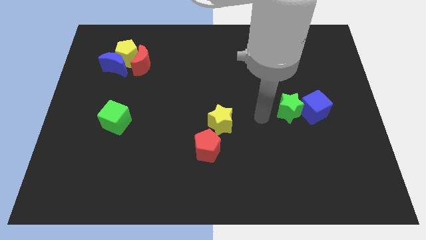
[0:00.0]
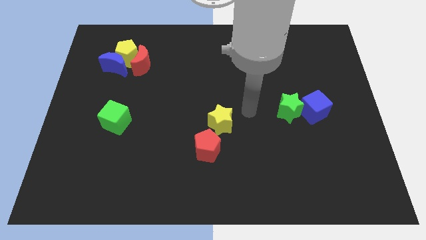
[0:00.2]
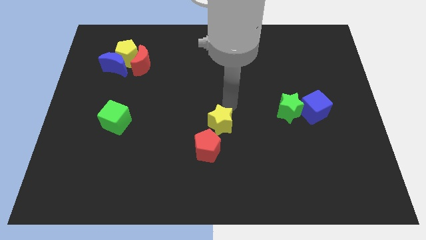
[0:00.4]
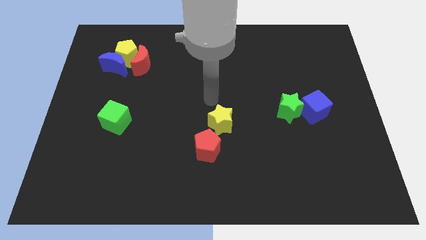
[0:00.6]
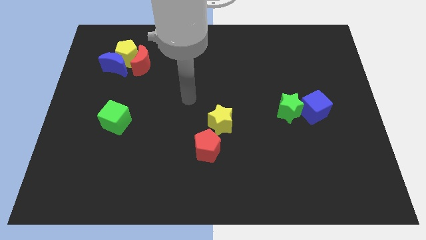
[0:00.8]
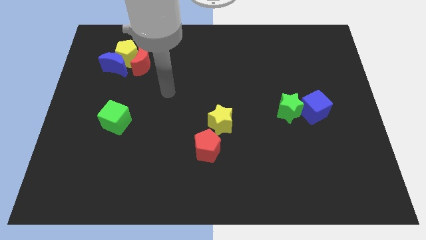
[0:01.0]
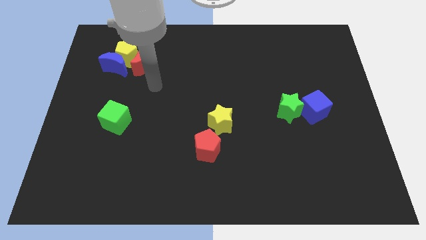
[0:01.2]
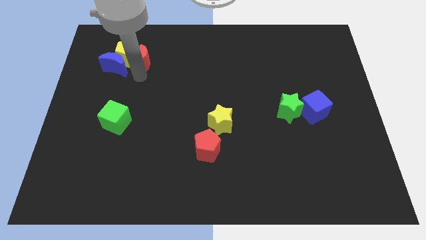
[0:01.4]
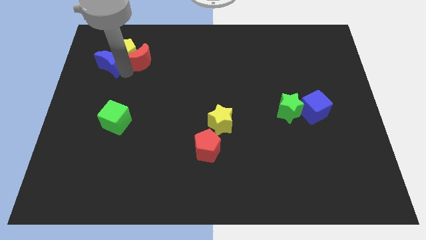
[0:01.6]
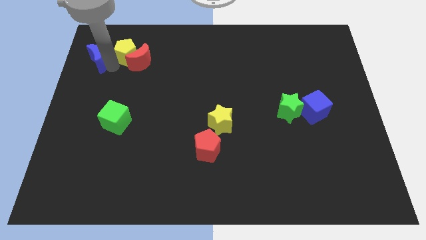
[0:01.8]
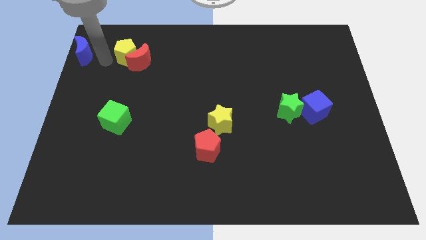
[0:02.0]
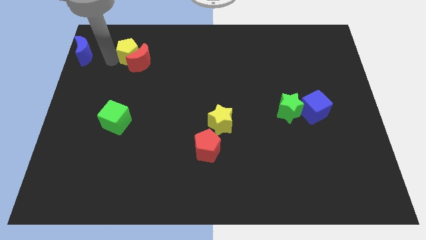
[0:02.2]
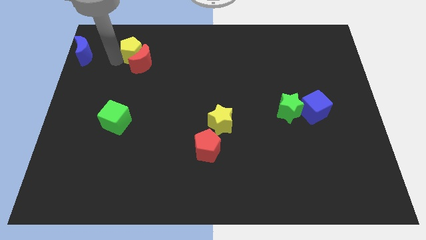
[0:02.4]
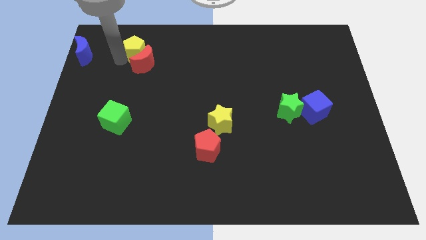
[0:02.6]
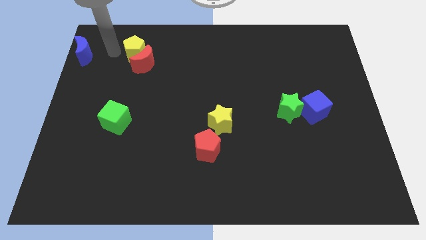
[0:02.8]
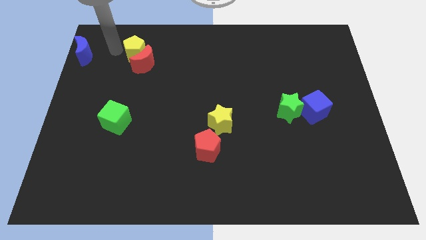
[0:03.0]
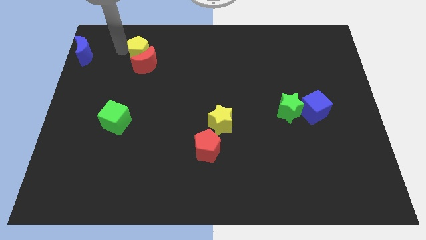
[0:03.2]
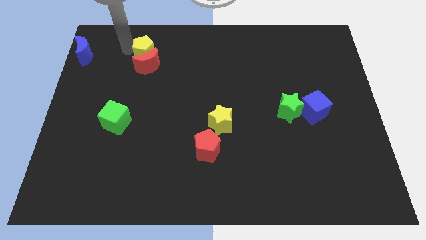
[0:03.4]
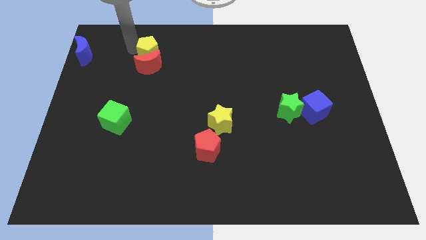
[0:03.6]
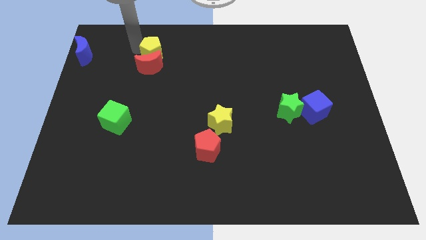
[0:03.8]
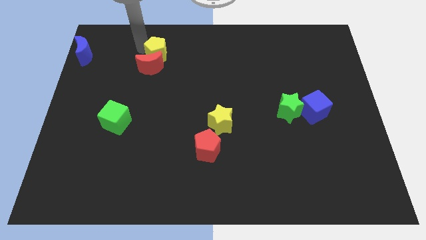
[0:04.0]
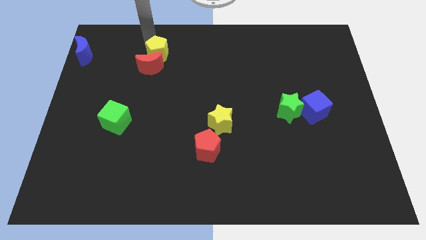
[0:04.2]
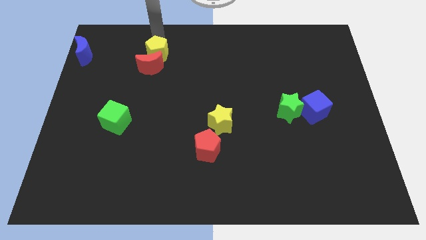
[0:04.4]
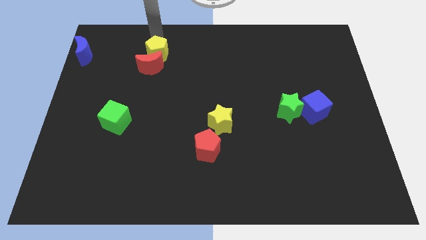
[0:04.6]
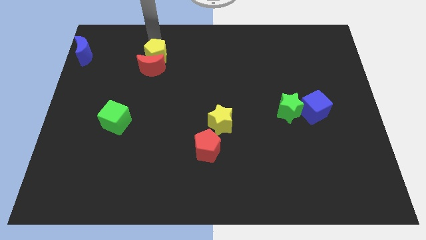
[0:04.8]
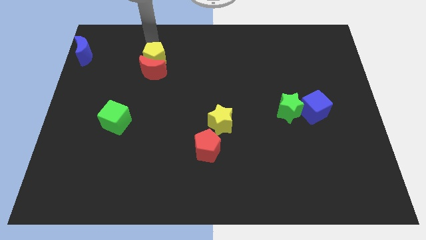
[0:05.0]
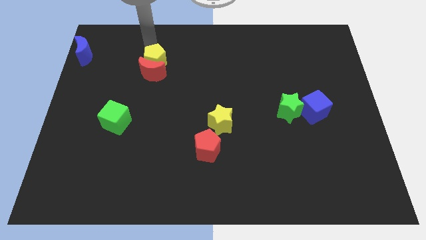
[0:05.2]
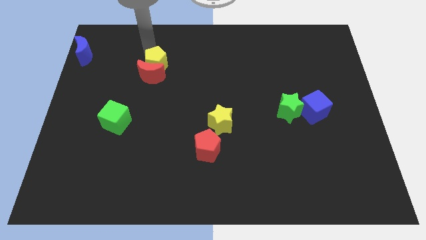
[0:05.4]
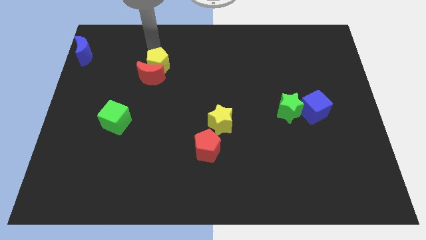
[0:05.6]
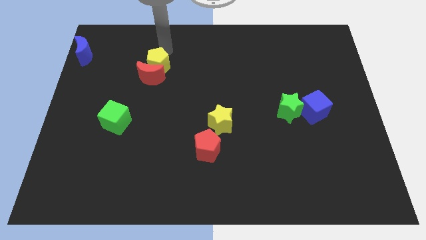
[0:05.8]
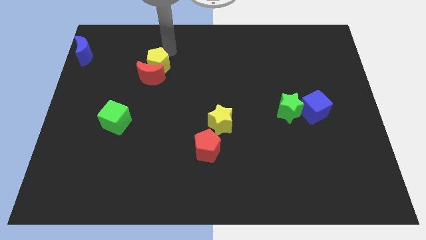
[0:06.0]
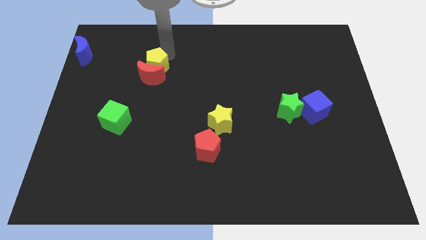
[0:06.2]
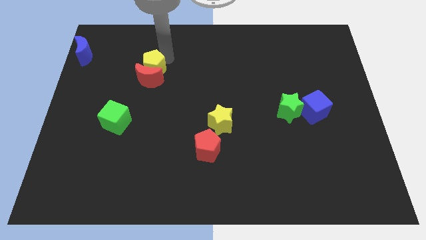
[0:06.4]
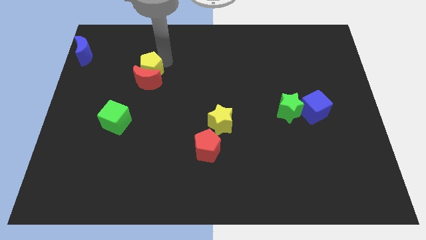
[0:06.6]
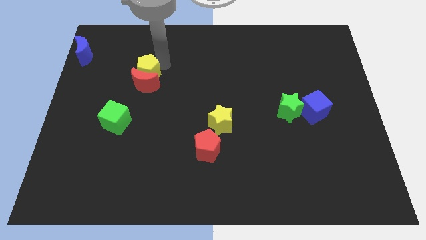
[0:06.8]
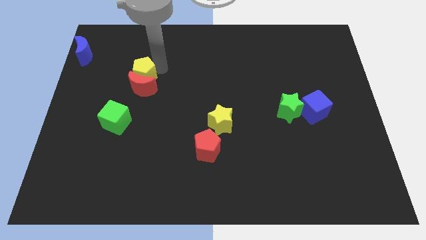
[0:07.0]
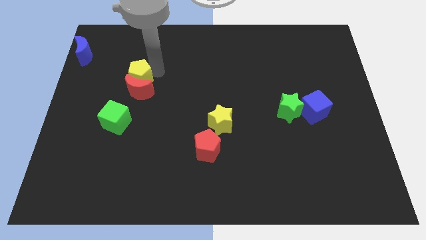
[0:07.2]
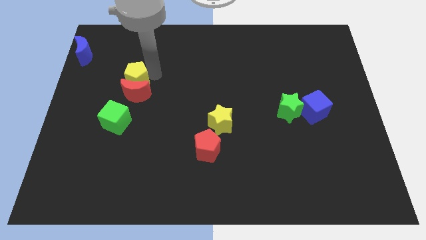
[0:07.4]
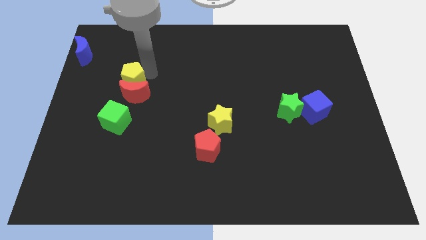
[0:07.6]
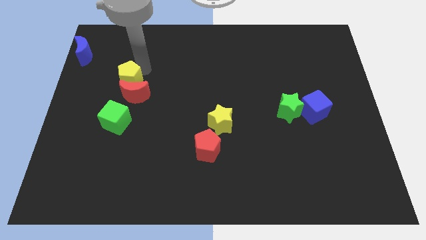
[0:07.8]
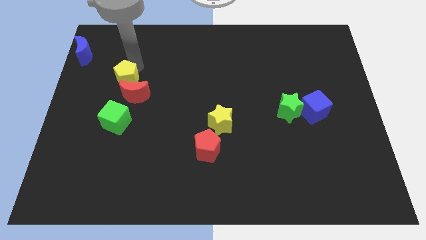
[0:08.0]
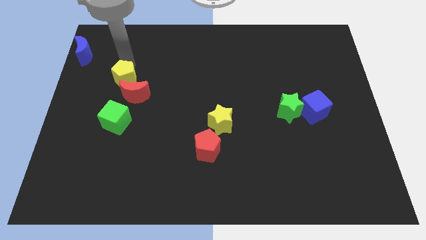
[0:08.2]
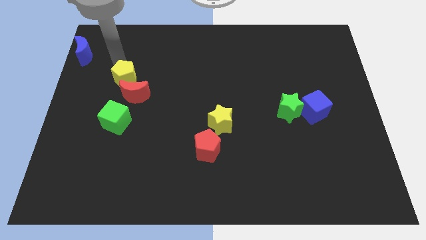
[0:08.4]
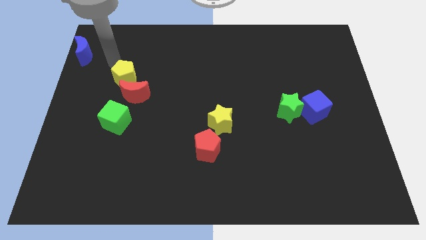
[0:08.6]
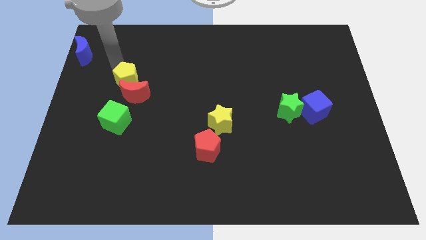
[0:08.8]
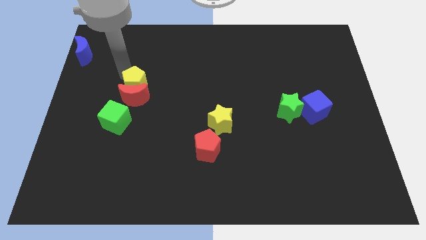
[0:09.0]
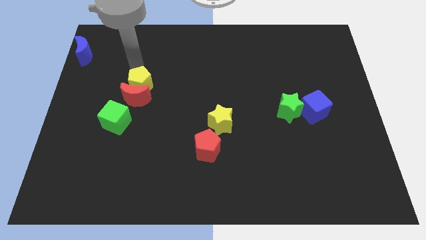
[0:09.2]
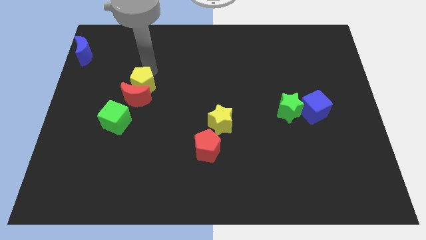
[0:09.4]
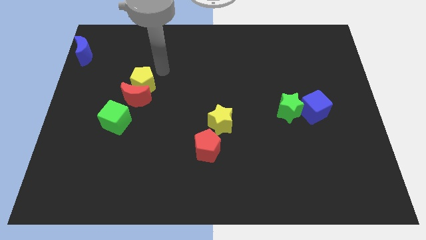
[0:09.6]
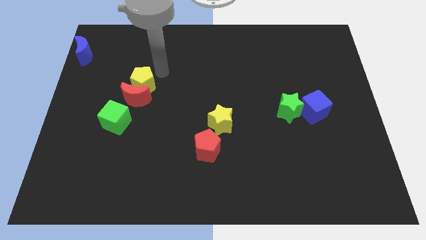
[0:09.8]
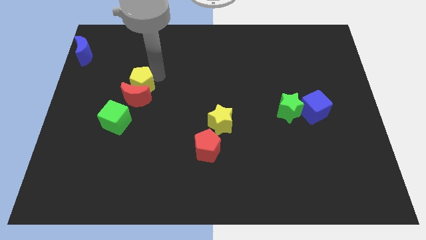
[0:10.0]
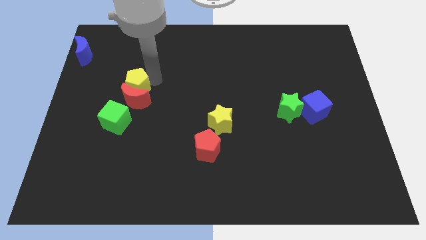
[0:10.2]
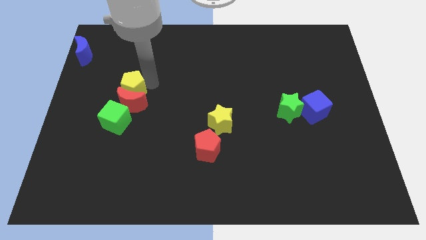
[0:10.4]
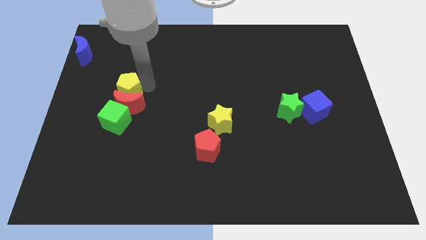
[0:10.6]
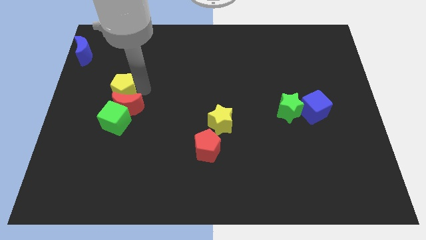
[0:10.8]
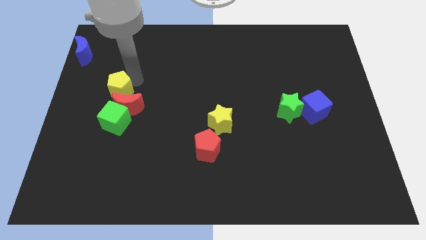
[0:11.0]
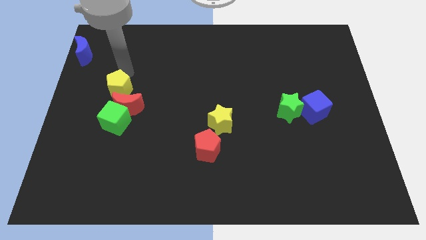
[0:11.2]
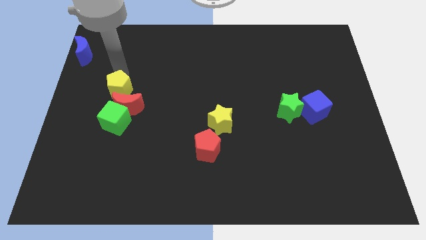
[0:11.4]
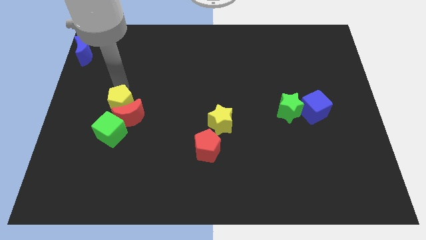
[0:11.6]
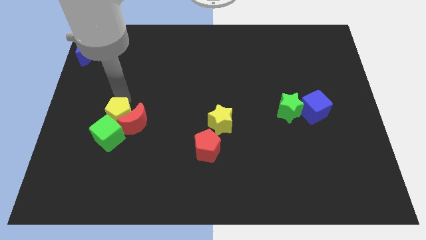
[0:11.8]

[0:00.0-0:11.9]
move the yellow pentagon towards the green cube
